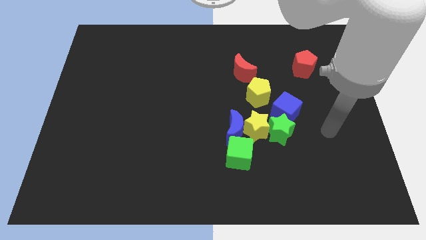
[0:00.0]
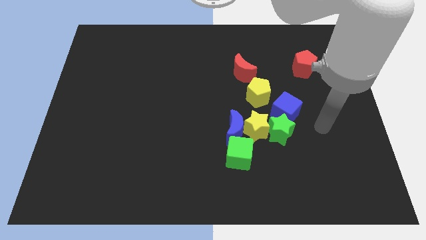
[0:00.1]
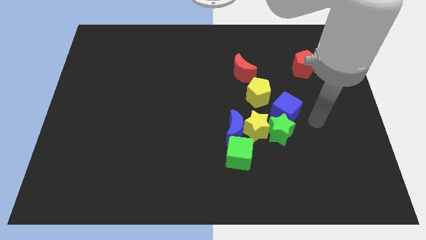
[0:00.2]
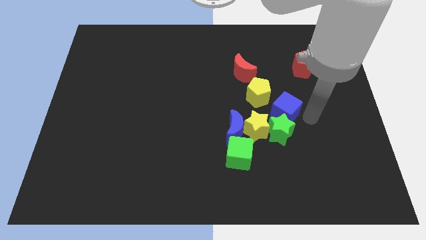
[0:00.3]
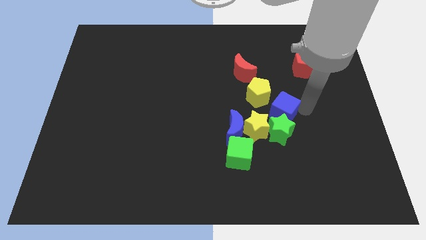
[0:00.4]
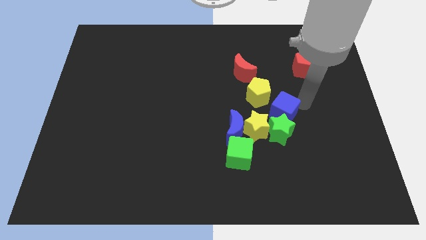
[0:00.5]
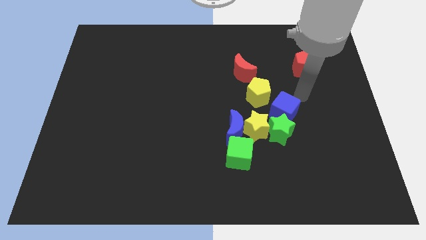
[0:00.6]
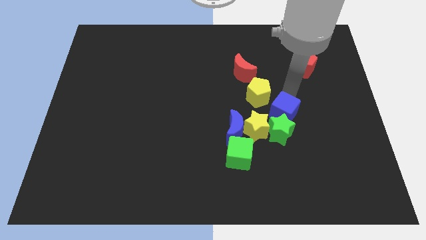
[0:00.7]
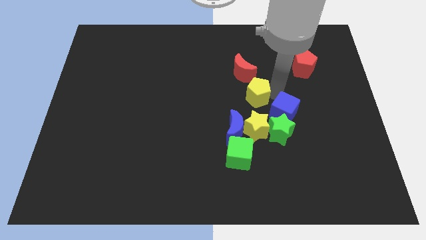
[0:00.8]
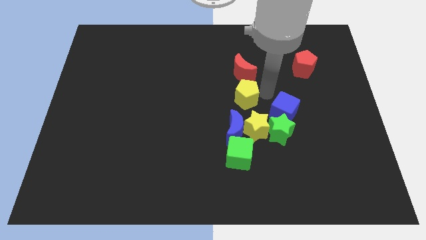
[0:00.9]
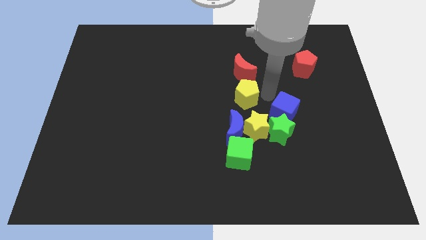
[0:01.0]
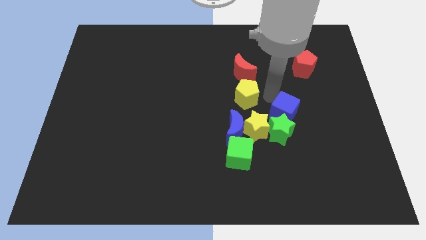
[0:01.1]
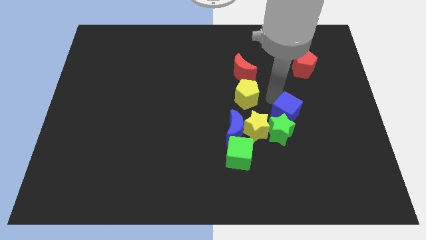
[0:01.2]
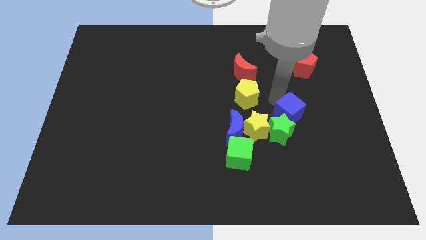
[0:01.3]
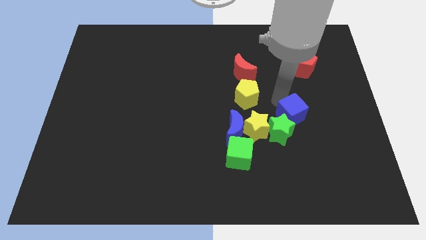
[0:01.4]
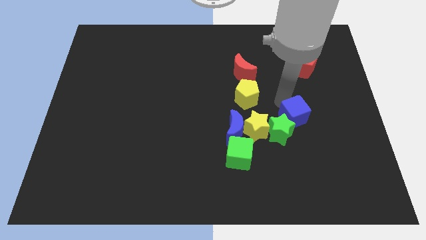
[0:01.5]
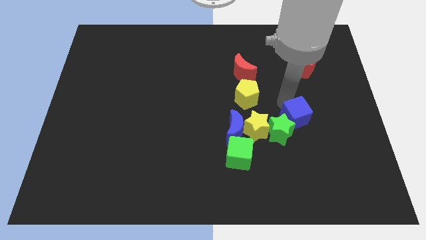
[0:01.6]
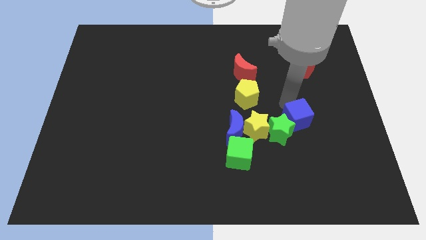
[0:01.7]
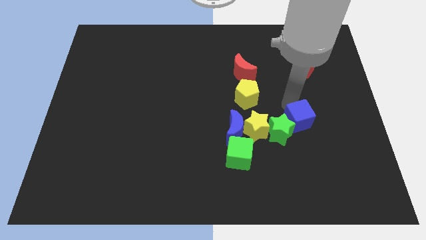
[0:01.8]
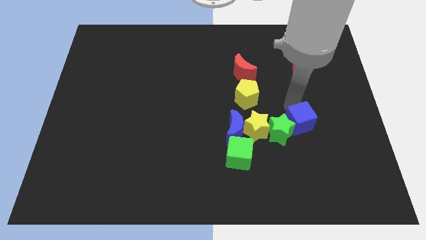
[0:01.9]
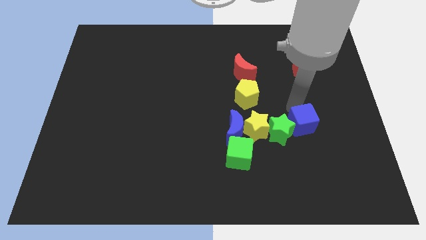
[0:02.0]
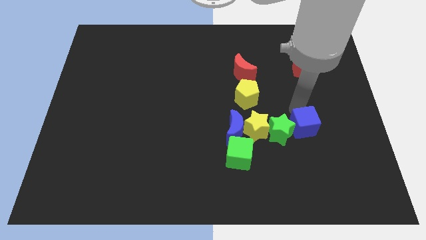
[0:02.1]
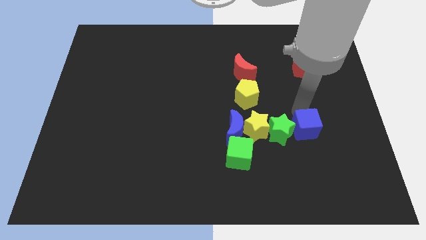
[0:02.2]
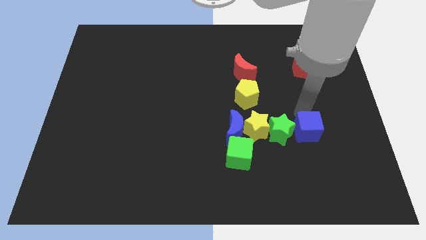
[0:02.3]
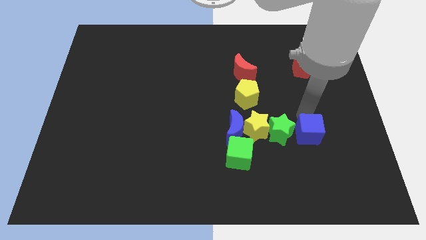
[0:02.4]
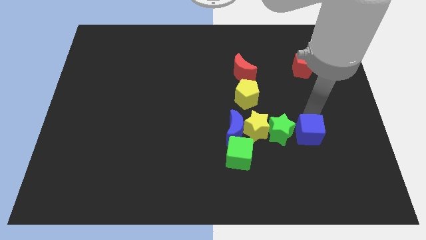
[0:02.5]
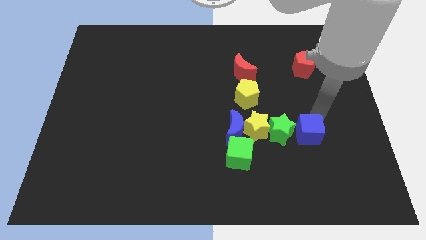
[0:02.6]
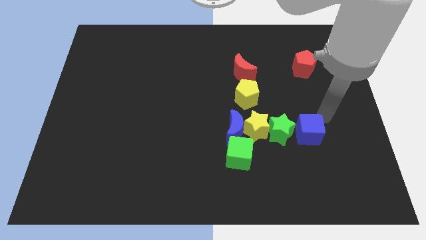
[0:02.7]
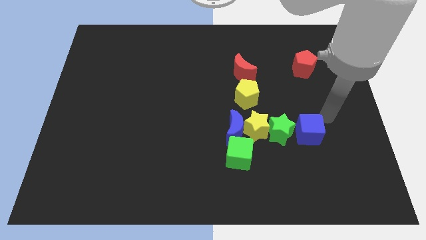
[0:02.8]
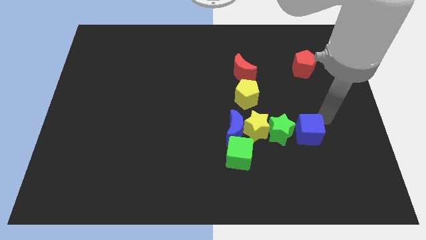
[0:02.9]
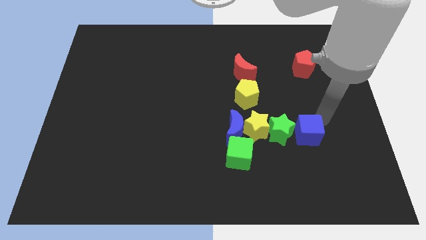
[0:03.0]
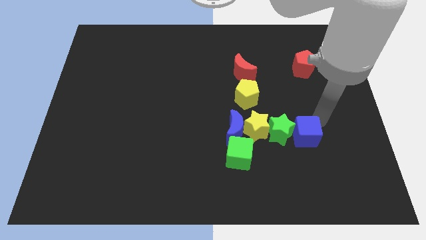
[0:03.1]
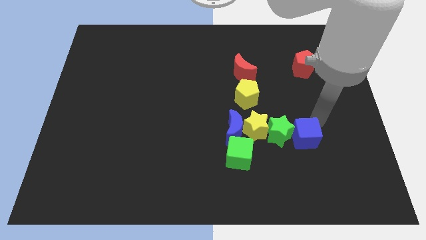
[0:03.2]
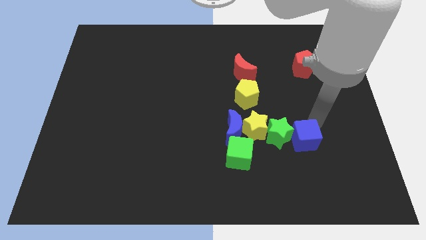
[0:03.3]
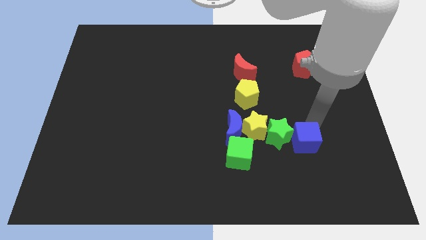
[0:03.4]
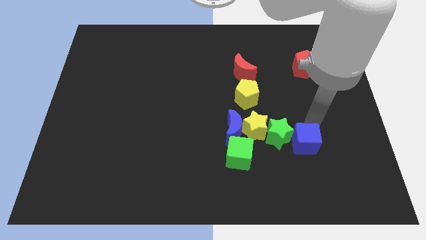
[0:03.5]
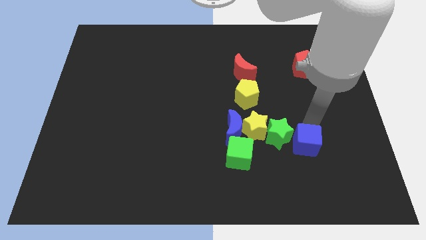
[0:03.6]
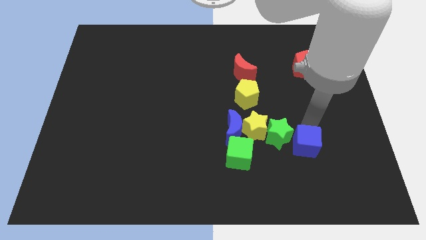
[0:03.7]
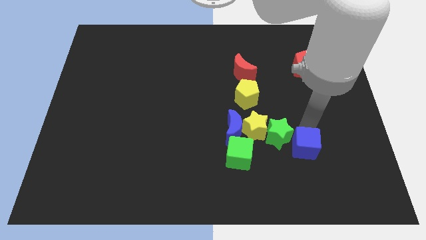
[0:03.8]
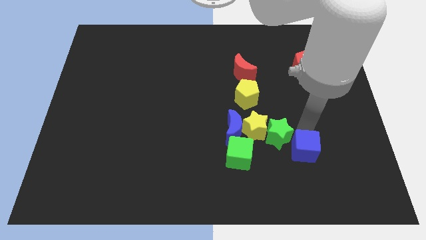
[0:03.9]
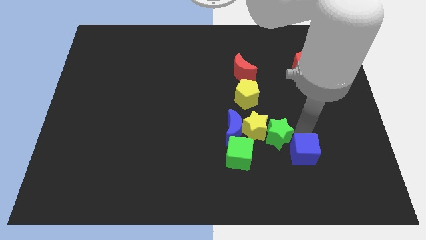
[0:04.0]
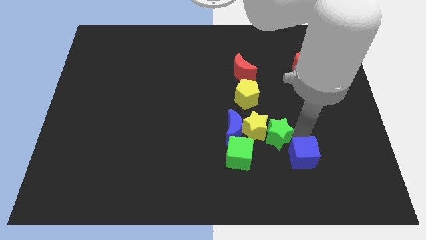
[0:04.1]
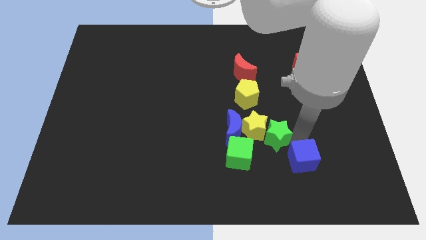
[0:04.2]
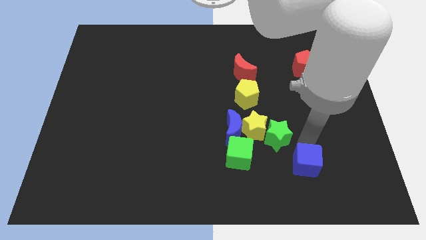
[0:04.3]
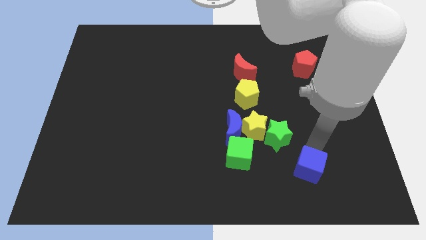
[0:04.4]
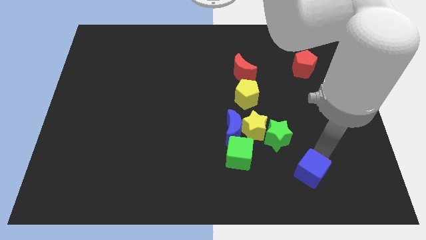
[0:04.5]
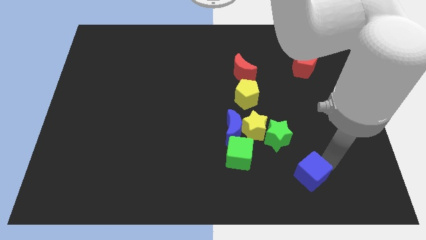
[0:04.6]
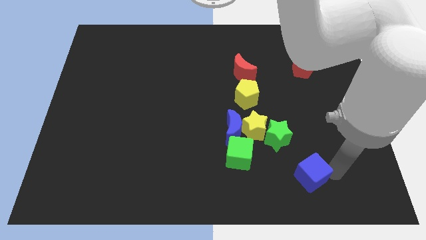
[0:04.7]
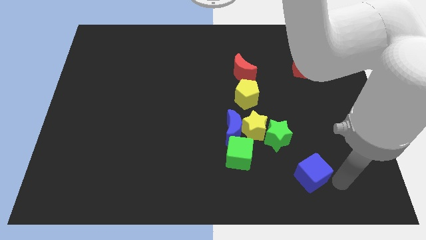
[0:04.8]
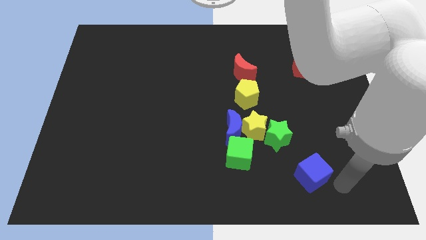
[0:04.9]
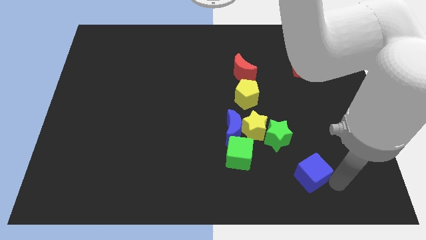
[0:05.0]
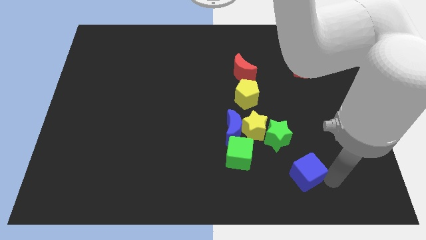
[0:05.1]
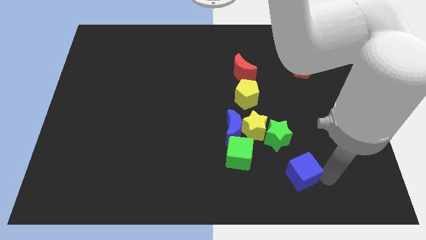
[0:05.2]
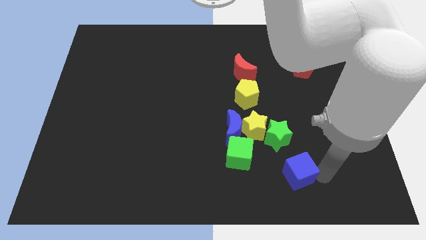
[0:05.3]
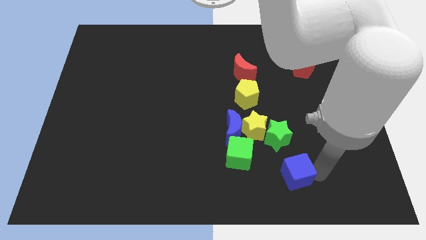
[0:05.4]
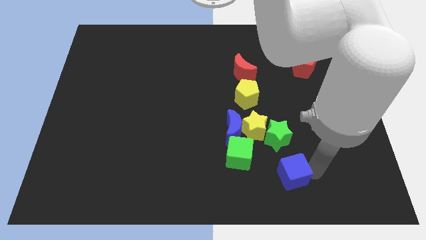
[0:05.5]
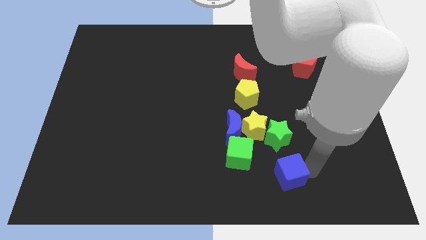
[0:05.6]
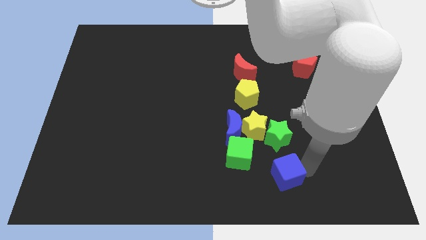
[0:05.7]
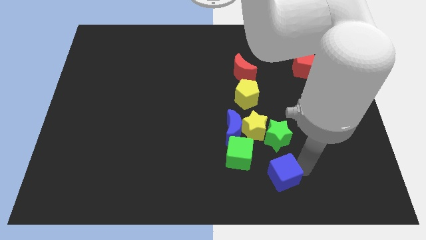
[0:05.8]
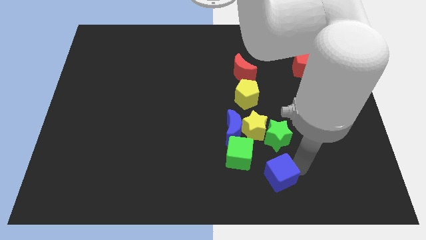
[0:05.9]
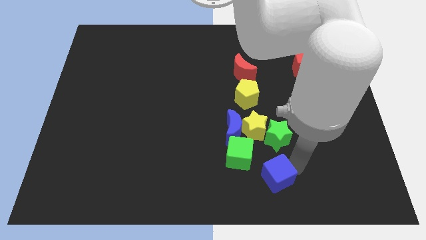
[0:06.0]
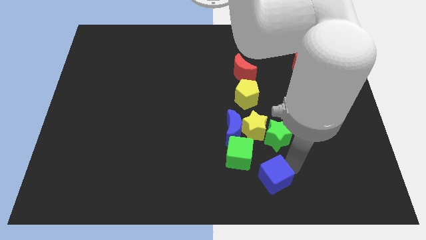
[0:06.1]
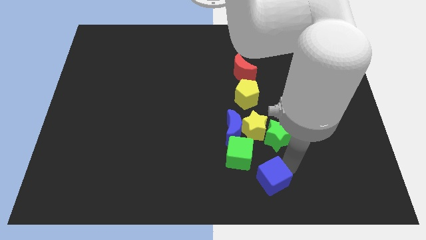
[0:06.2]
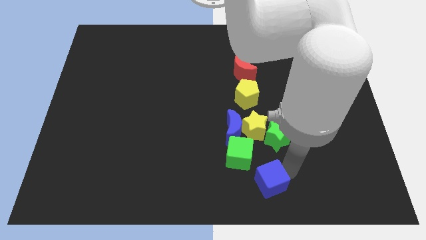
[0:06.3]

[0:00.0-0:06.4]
put the blue cube to the bottom side
